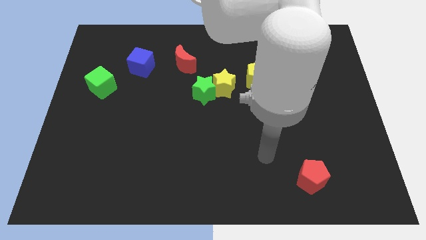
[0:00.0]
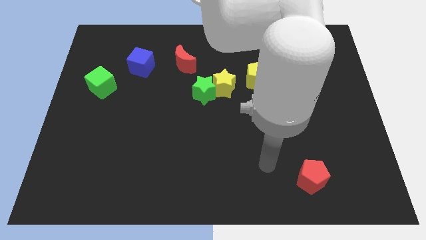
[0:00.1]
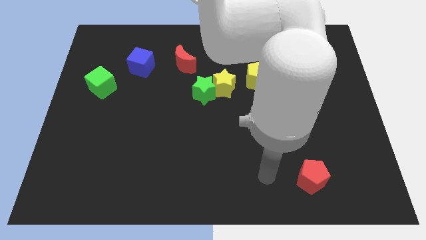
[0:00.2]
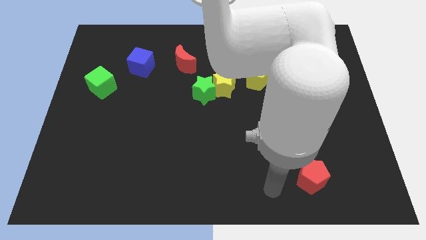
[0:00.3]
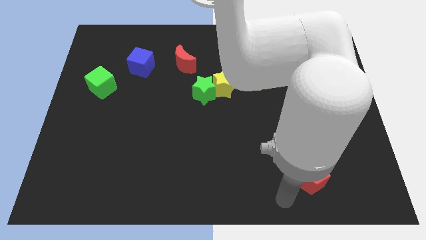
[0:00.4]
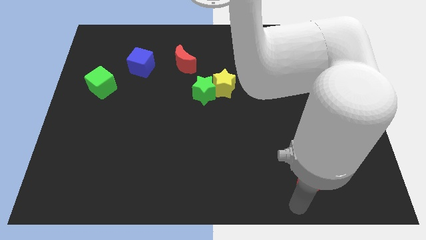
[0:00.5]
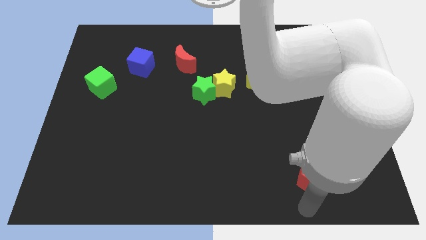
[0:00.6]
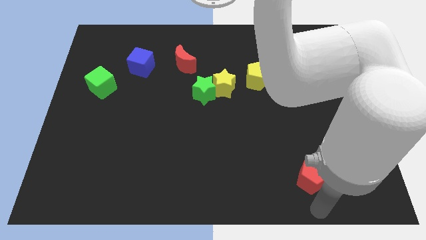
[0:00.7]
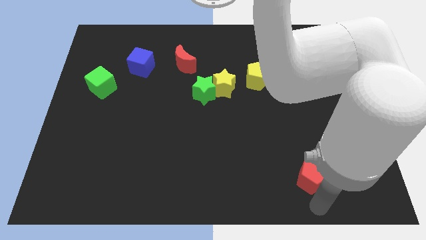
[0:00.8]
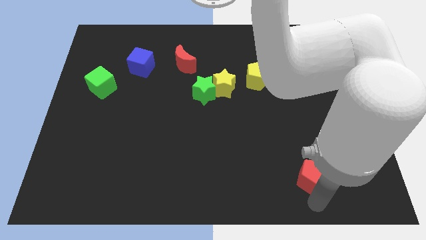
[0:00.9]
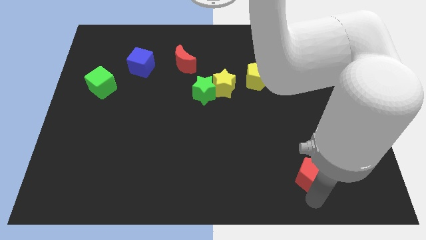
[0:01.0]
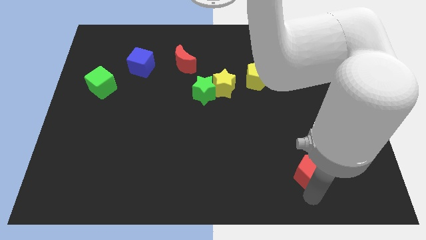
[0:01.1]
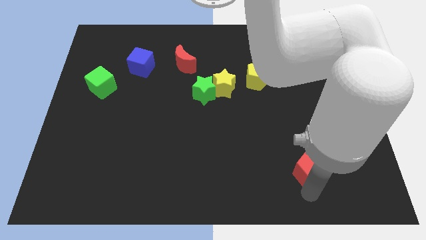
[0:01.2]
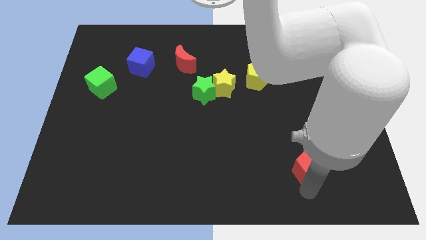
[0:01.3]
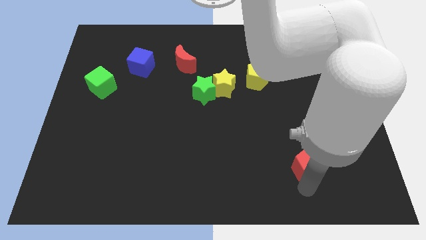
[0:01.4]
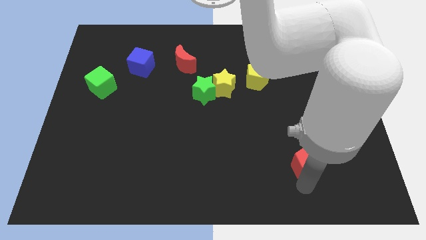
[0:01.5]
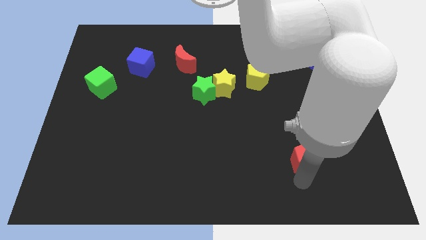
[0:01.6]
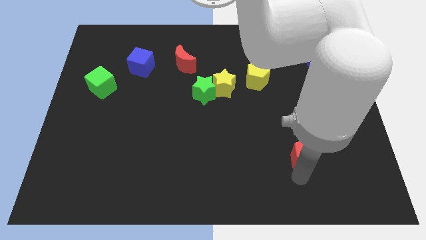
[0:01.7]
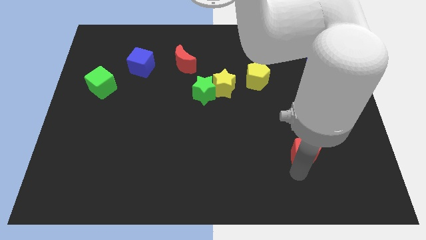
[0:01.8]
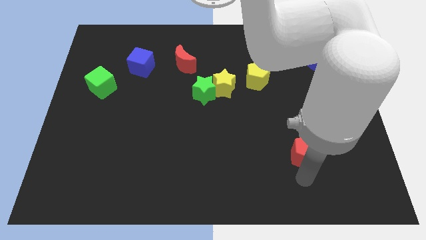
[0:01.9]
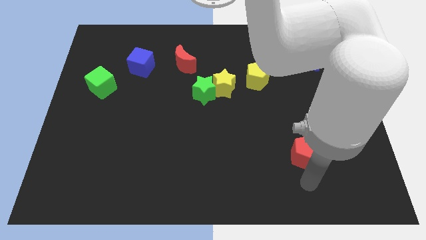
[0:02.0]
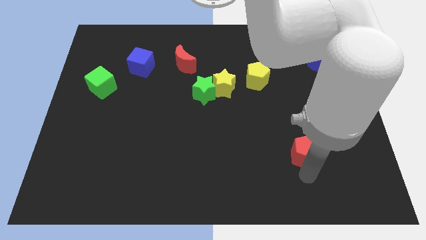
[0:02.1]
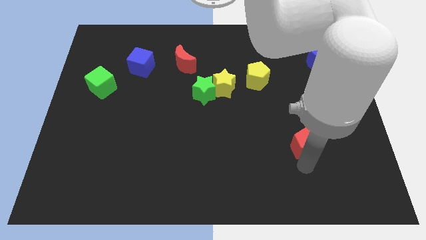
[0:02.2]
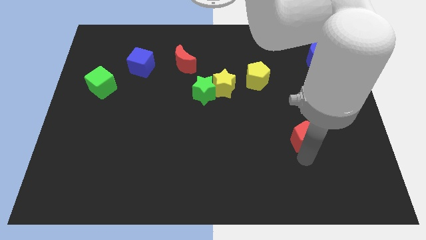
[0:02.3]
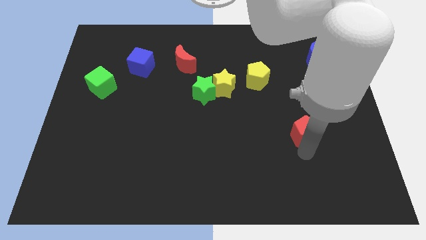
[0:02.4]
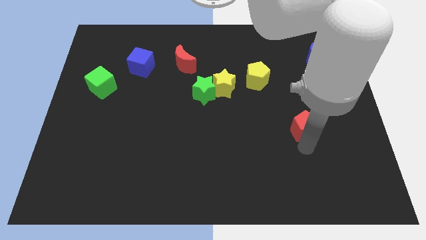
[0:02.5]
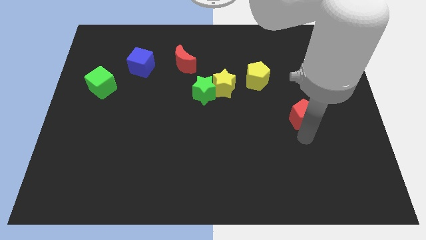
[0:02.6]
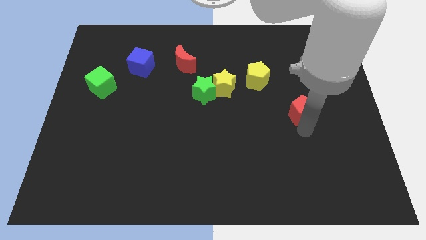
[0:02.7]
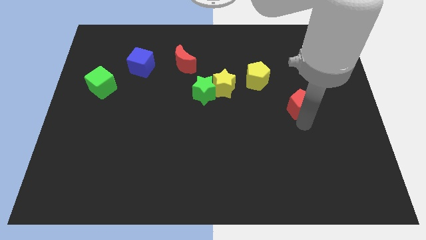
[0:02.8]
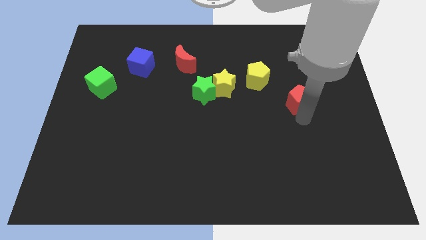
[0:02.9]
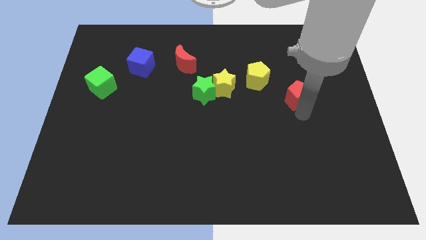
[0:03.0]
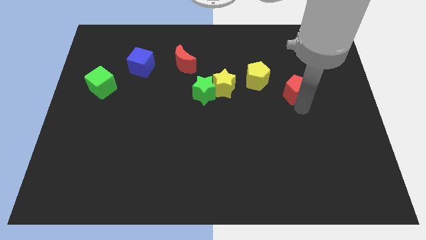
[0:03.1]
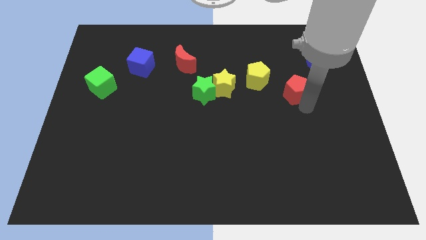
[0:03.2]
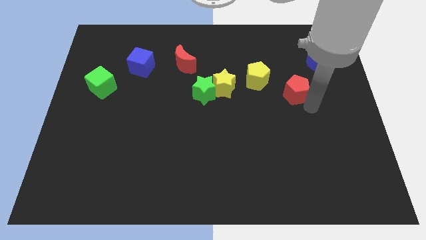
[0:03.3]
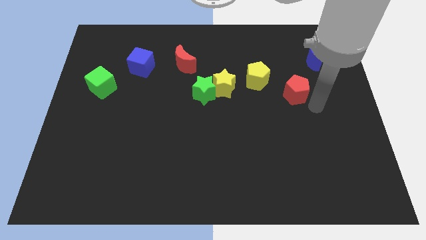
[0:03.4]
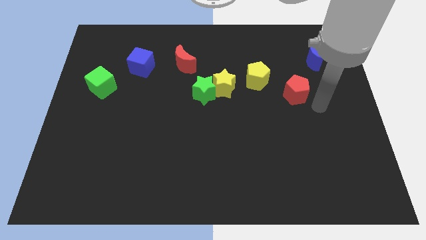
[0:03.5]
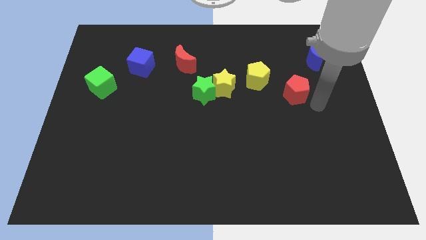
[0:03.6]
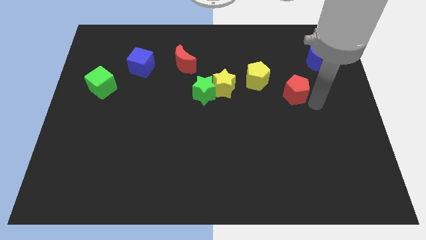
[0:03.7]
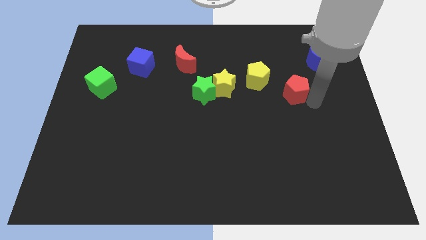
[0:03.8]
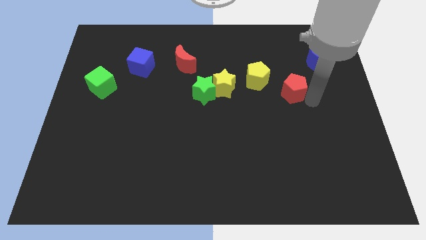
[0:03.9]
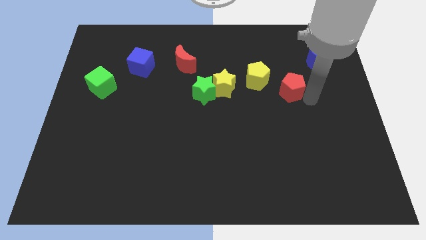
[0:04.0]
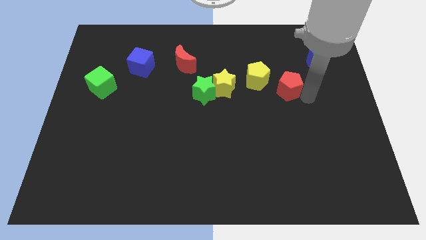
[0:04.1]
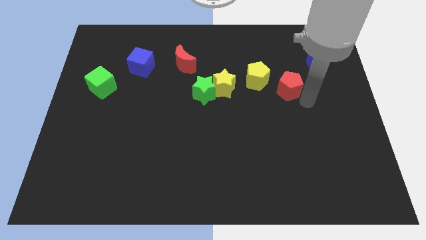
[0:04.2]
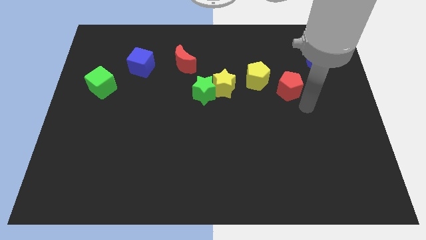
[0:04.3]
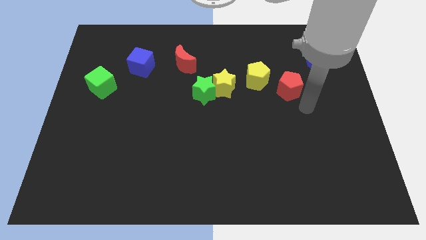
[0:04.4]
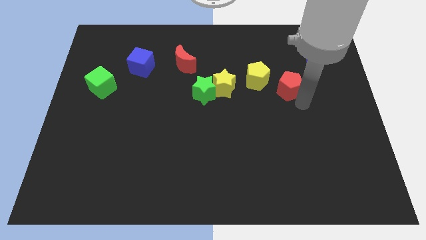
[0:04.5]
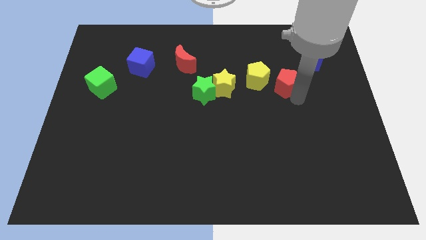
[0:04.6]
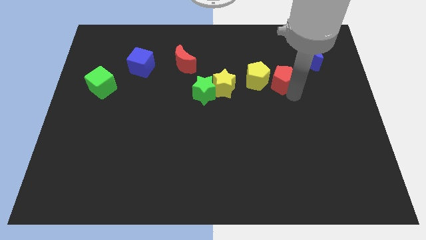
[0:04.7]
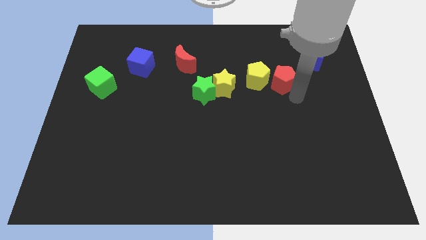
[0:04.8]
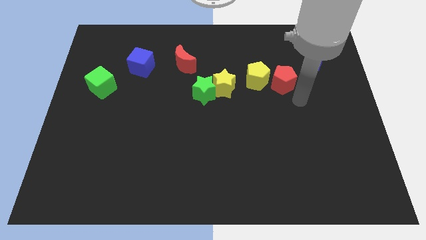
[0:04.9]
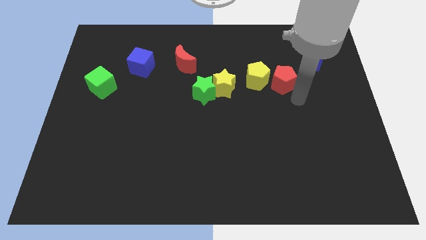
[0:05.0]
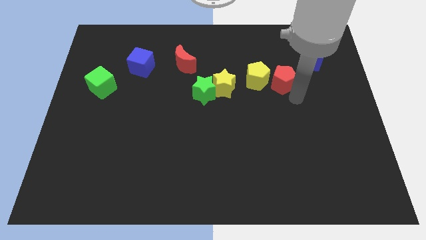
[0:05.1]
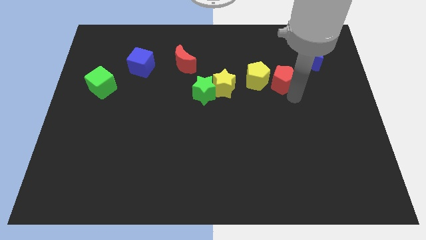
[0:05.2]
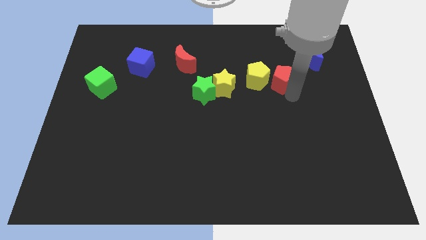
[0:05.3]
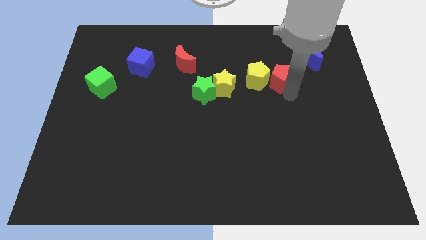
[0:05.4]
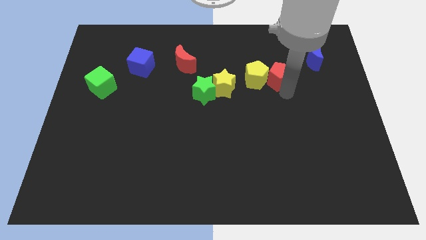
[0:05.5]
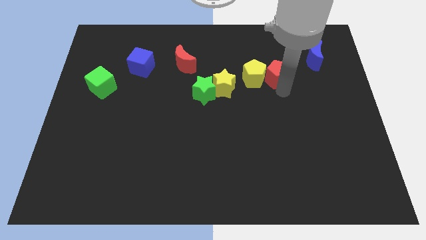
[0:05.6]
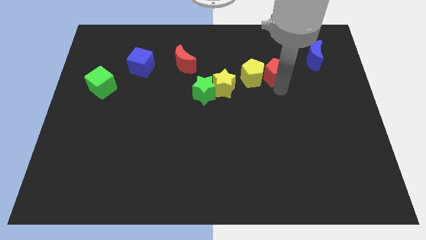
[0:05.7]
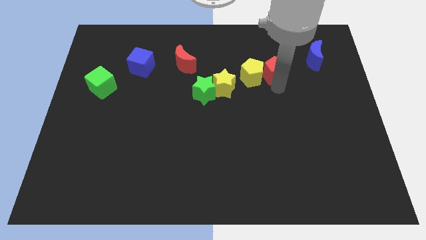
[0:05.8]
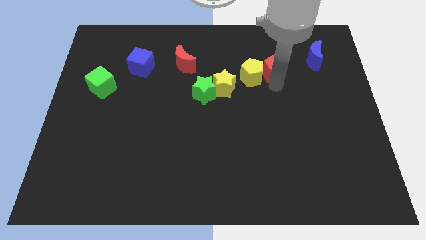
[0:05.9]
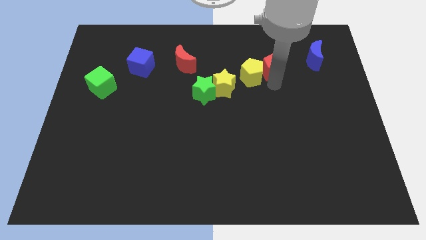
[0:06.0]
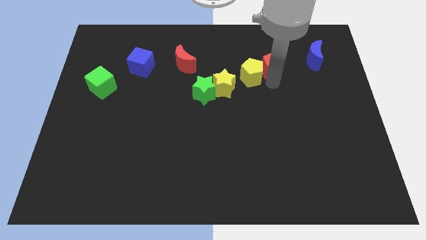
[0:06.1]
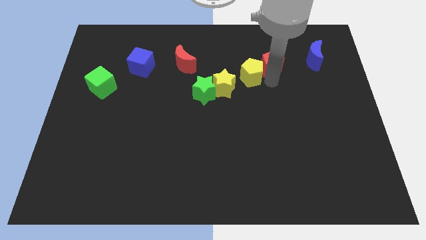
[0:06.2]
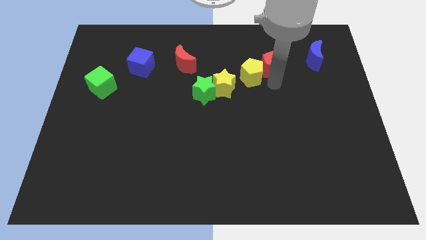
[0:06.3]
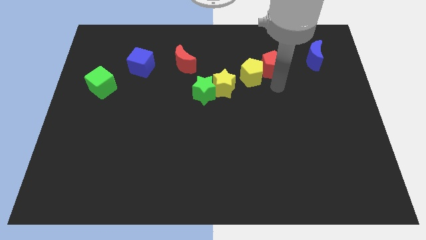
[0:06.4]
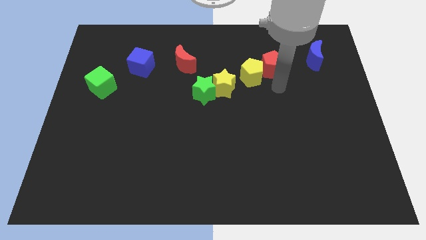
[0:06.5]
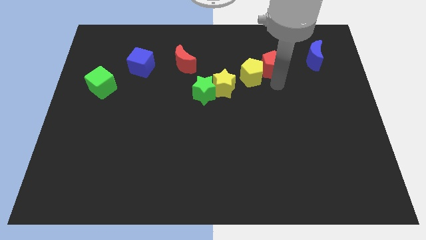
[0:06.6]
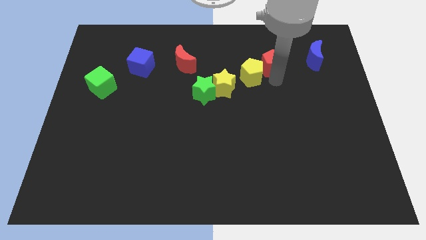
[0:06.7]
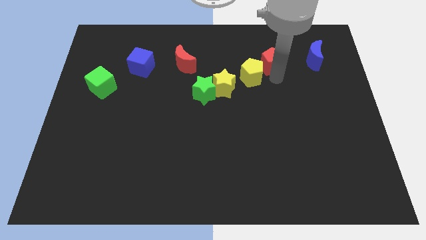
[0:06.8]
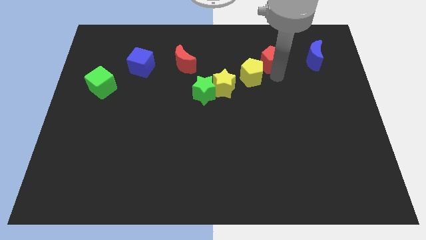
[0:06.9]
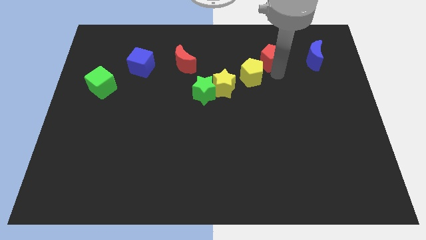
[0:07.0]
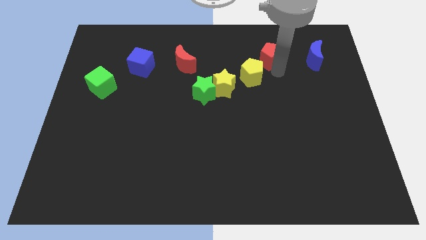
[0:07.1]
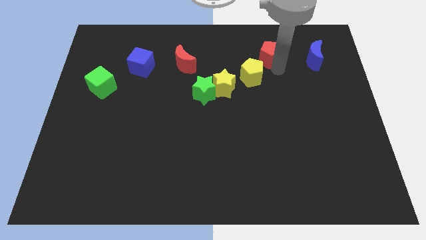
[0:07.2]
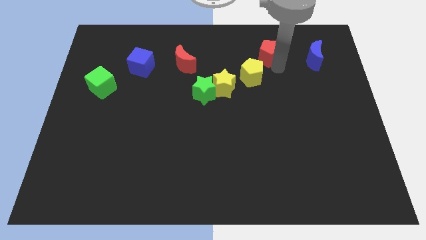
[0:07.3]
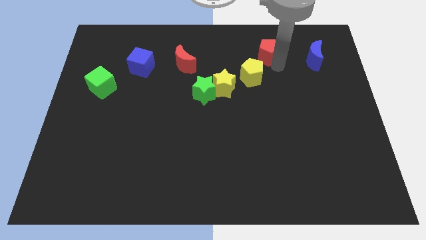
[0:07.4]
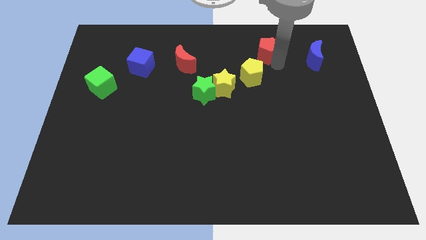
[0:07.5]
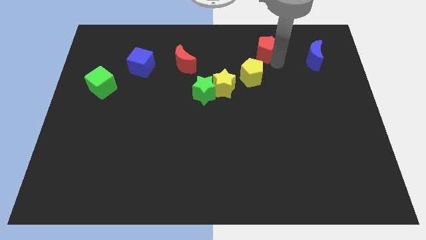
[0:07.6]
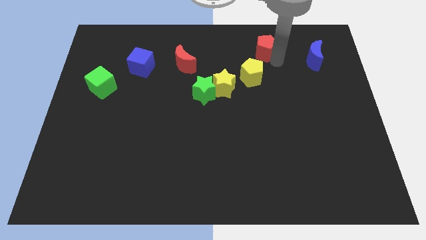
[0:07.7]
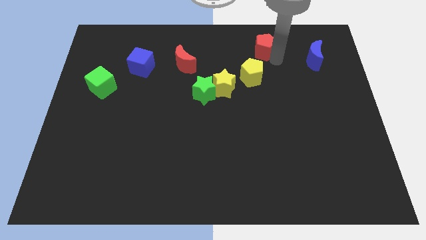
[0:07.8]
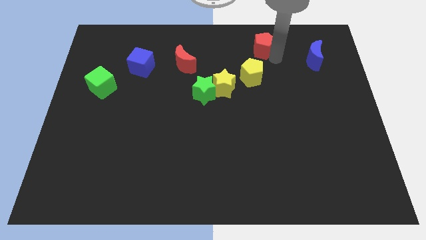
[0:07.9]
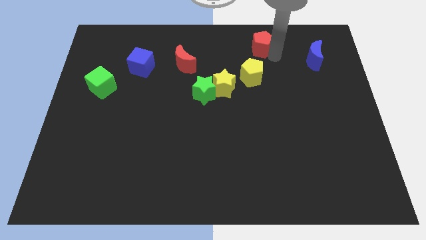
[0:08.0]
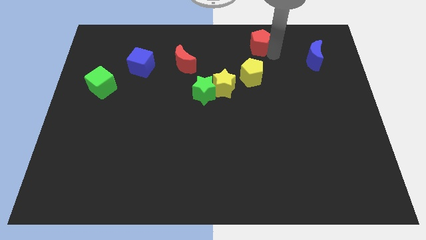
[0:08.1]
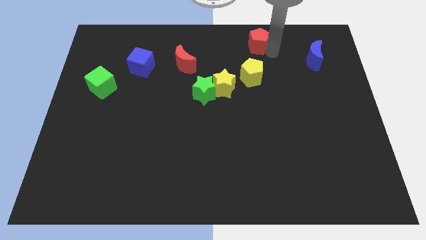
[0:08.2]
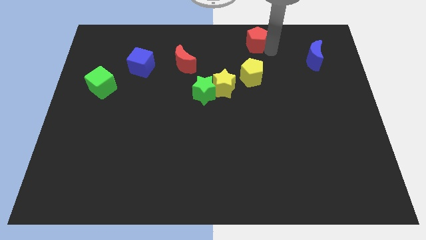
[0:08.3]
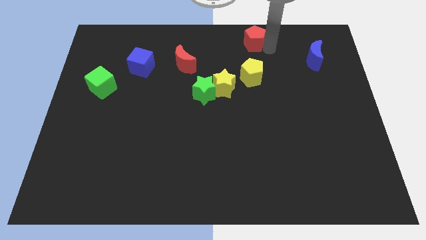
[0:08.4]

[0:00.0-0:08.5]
push the red pentagon to the top side
